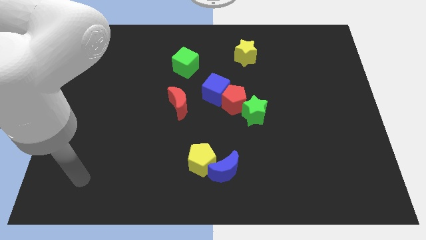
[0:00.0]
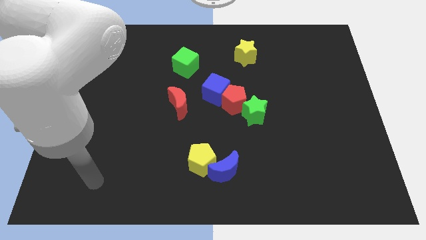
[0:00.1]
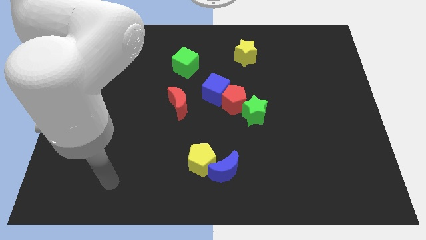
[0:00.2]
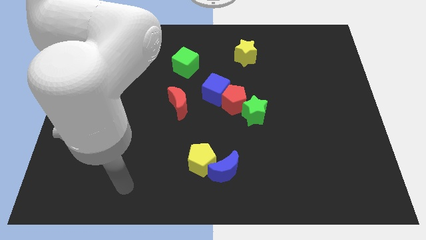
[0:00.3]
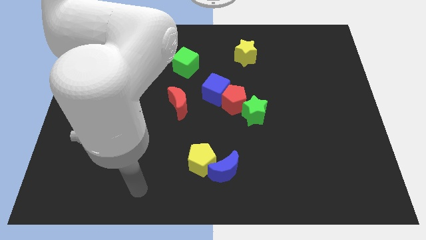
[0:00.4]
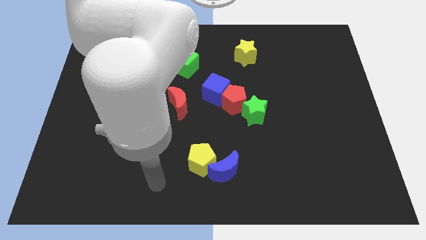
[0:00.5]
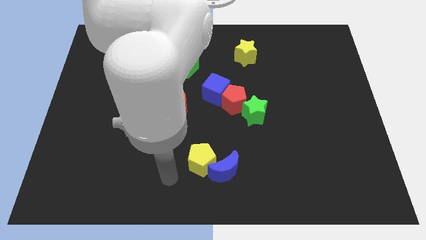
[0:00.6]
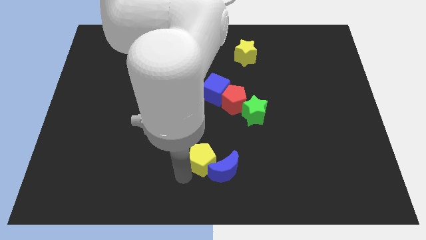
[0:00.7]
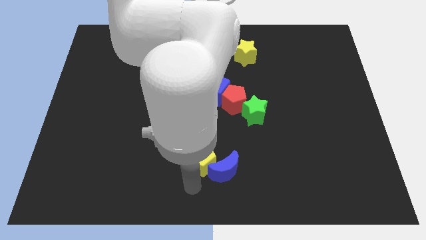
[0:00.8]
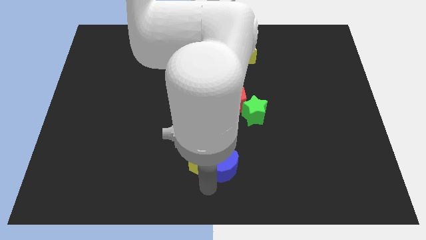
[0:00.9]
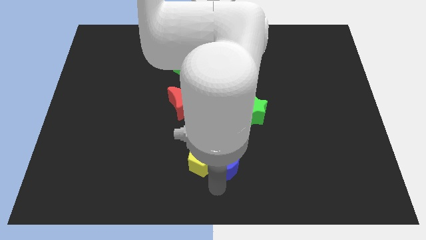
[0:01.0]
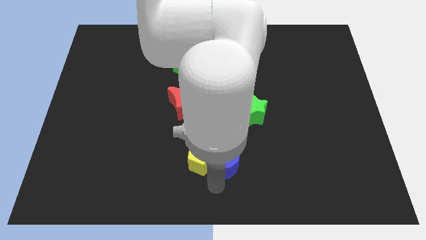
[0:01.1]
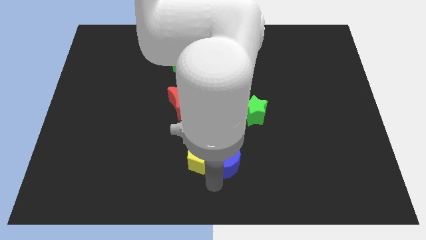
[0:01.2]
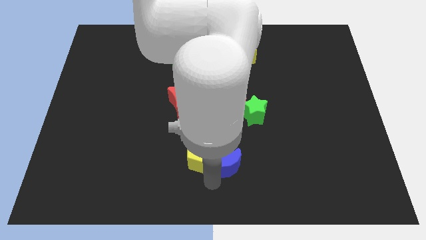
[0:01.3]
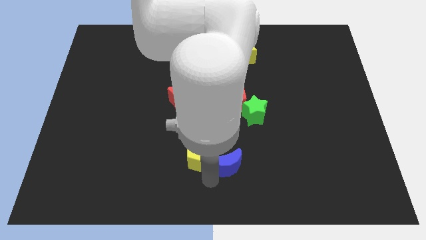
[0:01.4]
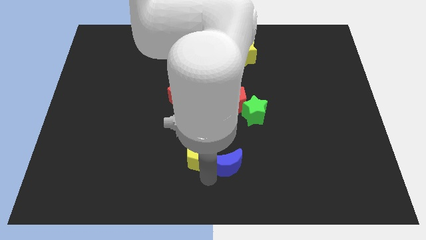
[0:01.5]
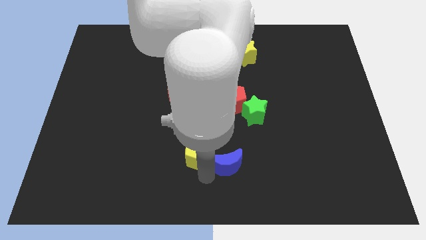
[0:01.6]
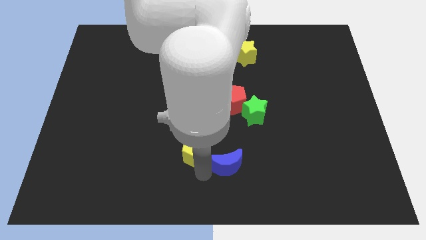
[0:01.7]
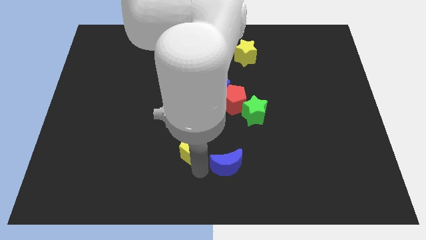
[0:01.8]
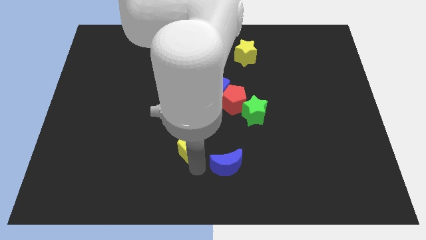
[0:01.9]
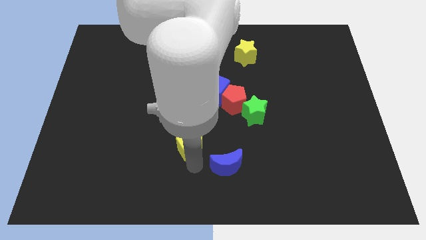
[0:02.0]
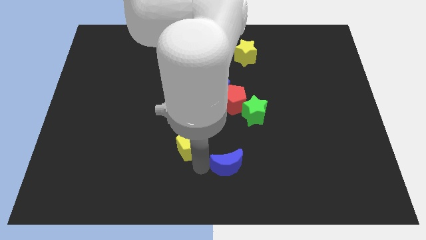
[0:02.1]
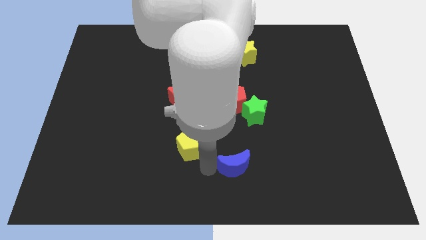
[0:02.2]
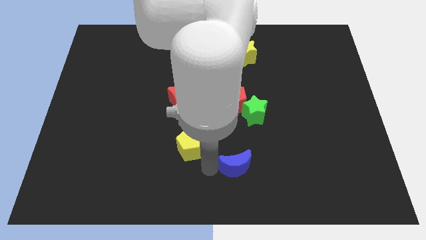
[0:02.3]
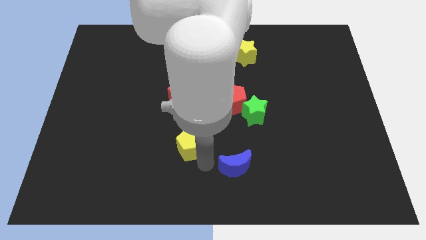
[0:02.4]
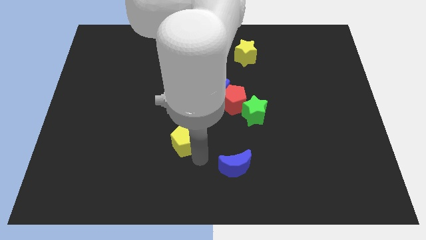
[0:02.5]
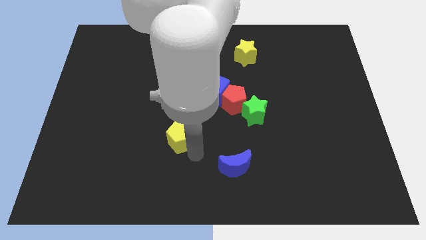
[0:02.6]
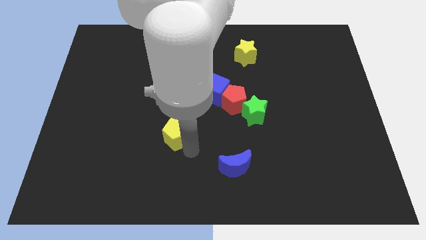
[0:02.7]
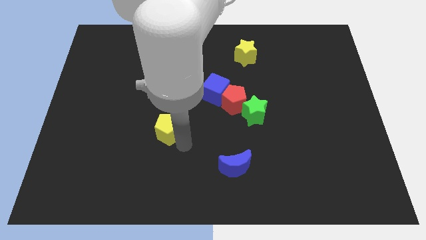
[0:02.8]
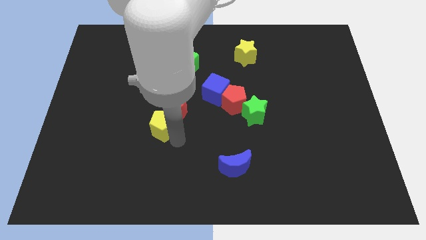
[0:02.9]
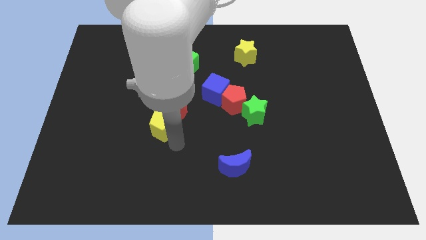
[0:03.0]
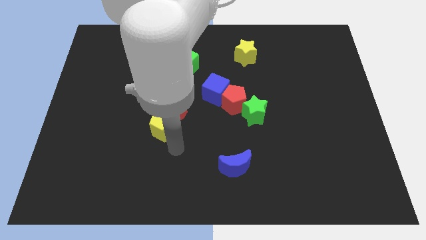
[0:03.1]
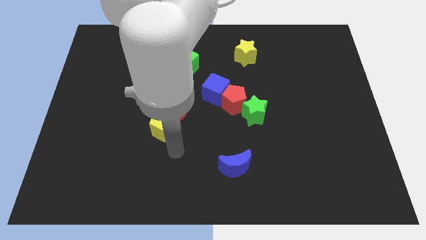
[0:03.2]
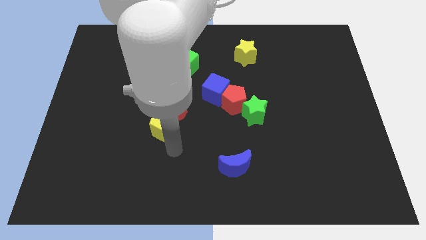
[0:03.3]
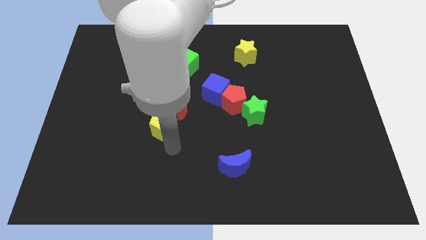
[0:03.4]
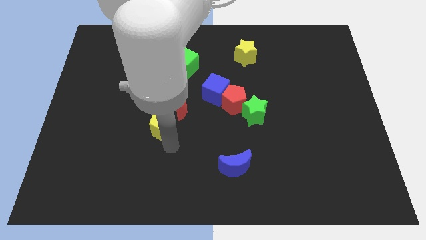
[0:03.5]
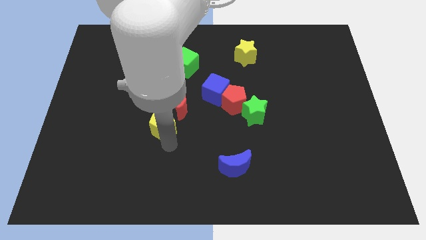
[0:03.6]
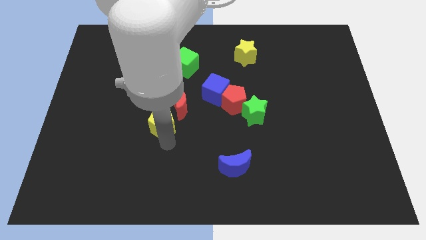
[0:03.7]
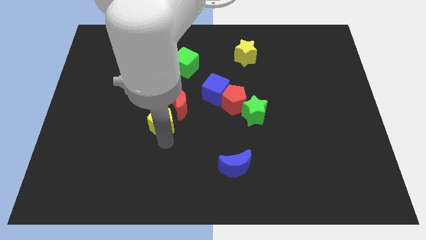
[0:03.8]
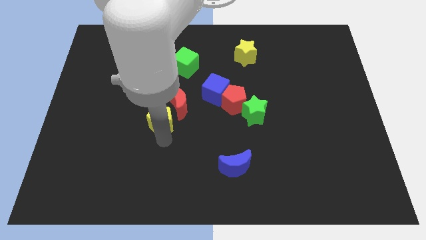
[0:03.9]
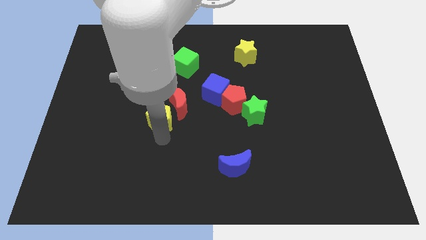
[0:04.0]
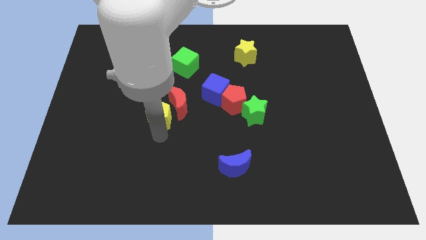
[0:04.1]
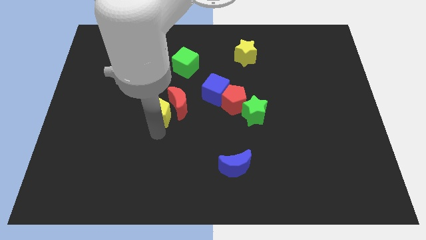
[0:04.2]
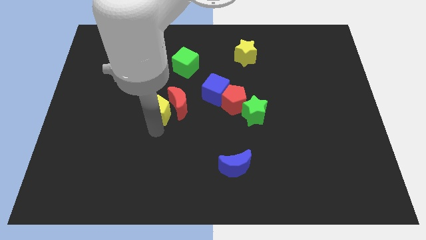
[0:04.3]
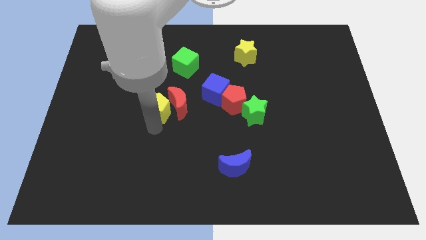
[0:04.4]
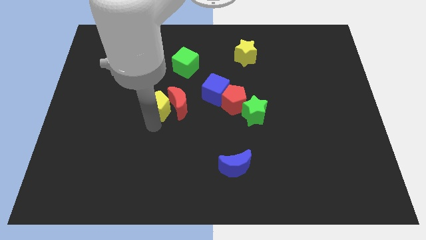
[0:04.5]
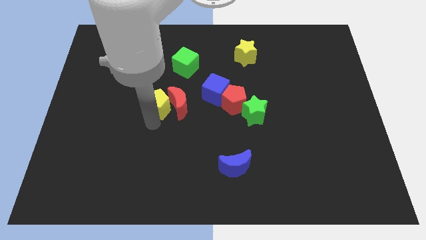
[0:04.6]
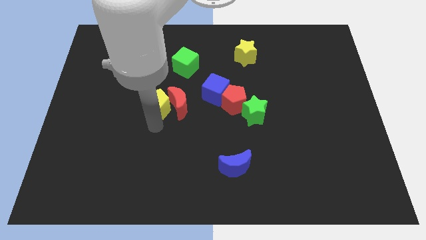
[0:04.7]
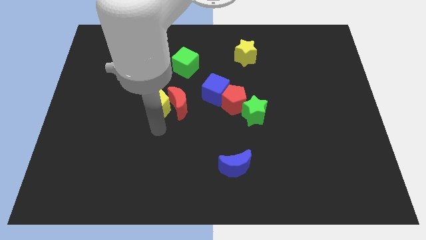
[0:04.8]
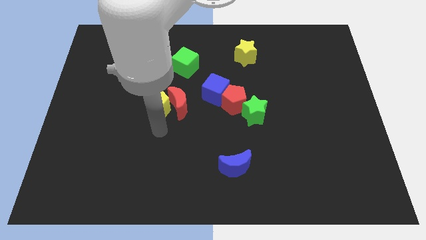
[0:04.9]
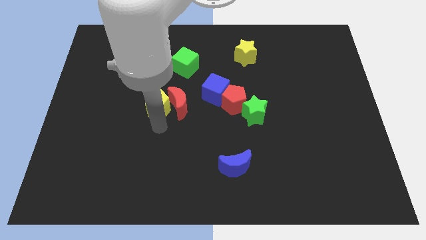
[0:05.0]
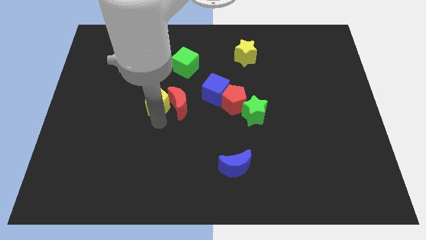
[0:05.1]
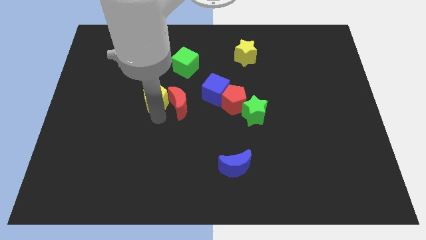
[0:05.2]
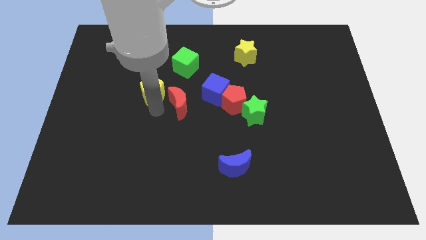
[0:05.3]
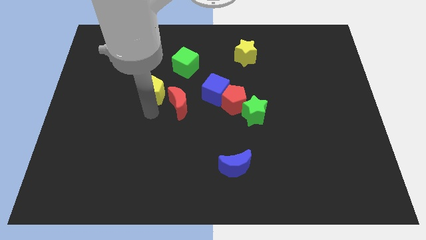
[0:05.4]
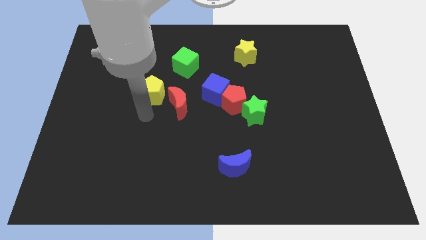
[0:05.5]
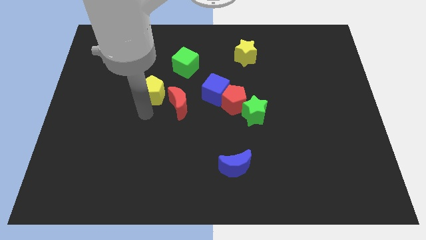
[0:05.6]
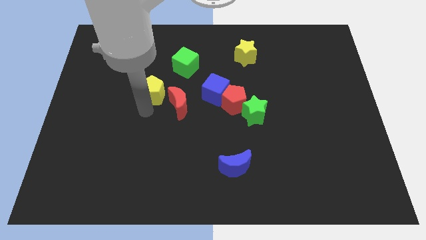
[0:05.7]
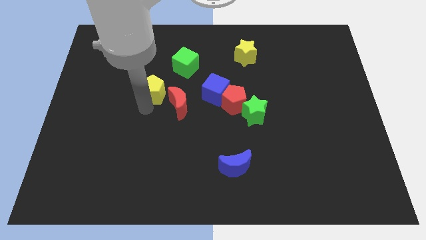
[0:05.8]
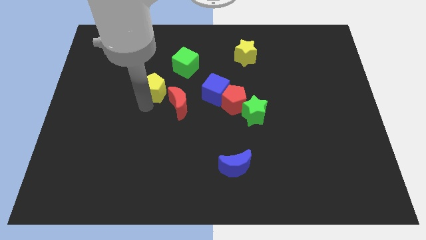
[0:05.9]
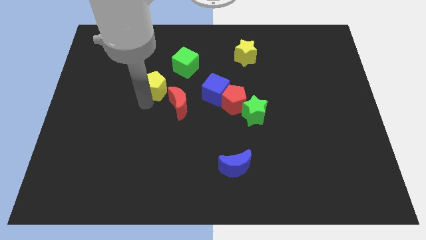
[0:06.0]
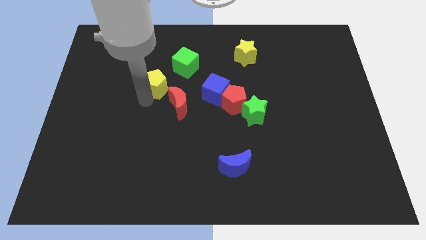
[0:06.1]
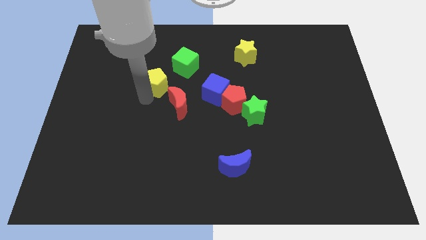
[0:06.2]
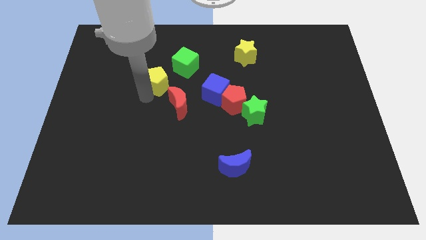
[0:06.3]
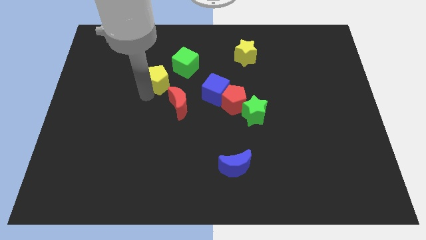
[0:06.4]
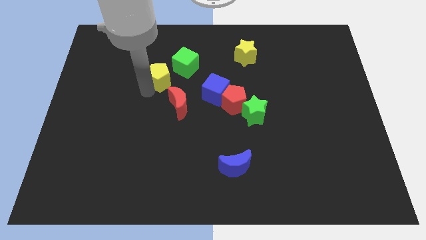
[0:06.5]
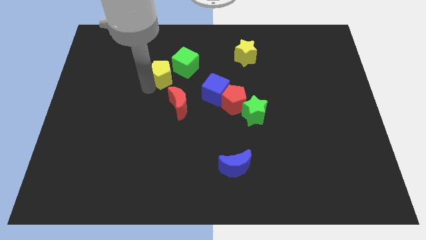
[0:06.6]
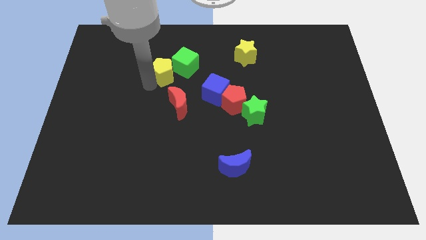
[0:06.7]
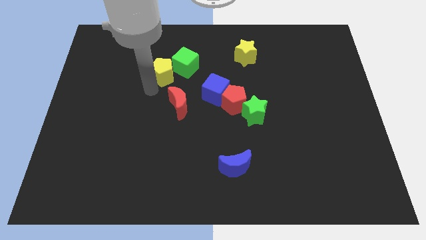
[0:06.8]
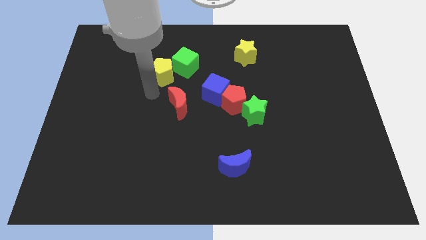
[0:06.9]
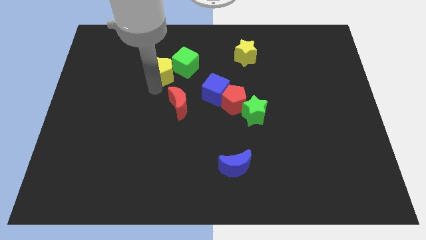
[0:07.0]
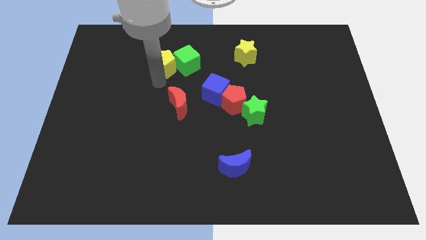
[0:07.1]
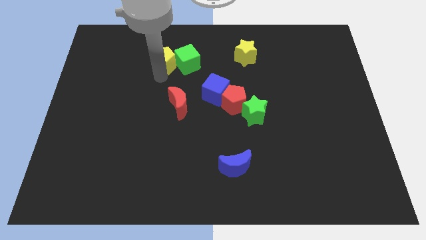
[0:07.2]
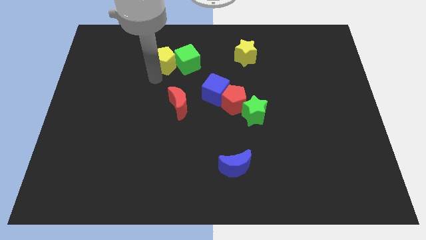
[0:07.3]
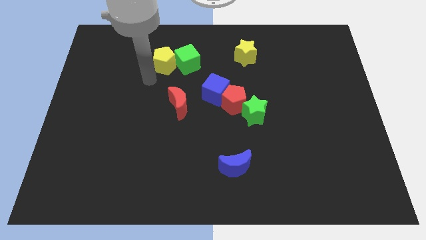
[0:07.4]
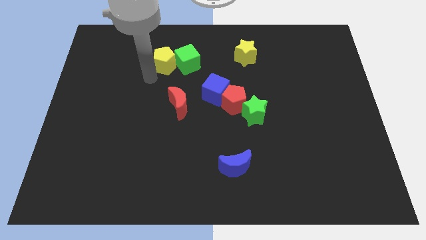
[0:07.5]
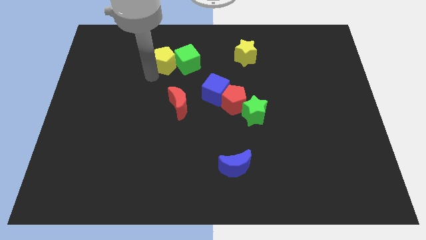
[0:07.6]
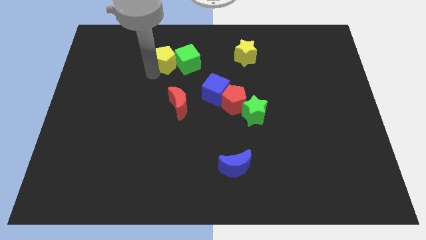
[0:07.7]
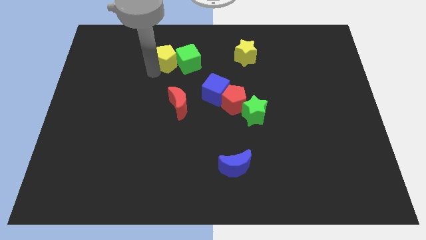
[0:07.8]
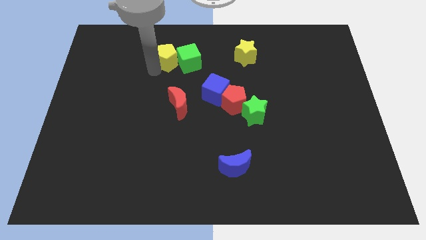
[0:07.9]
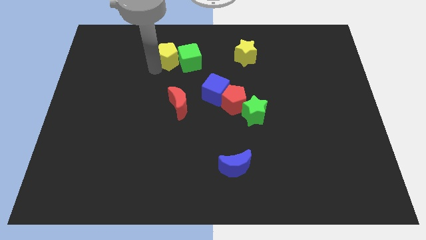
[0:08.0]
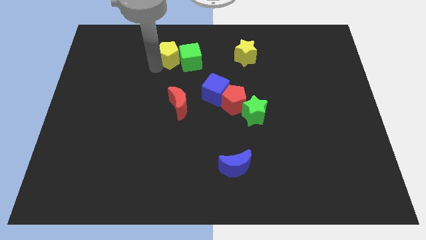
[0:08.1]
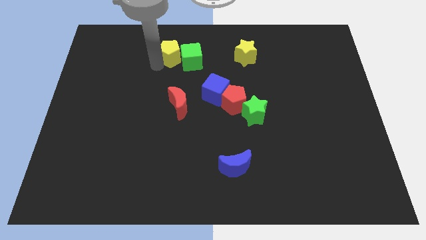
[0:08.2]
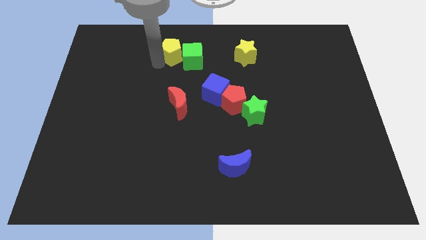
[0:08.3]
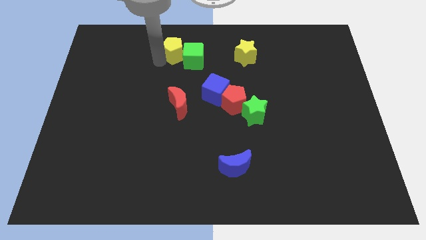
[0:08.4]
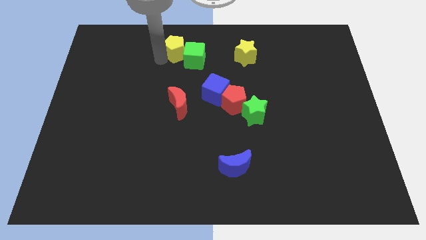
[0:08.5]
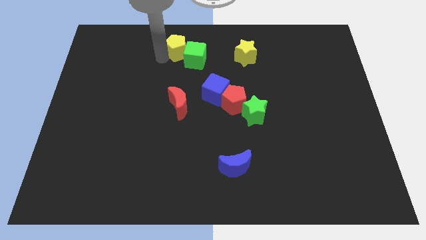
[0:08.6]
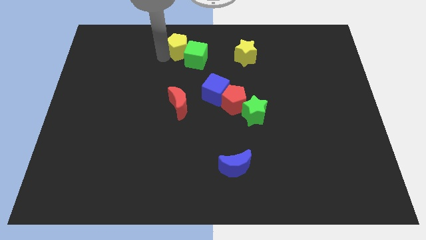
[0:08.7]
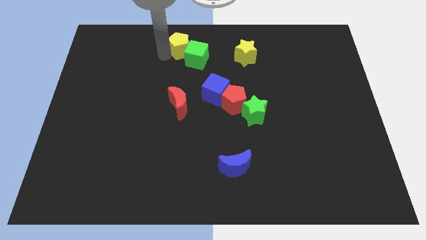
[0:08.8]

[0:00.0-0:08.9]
push the yellow pentagon to the towards your base
